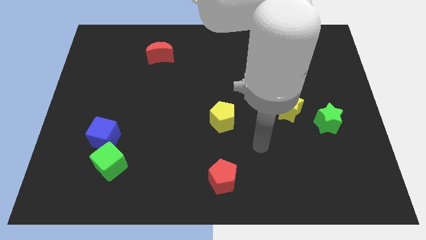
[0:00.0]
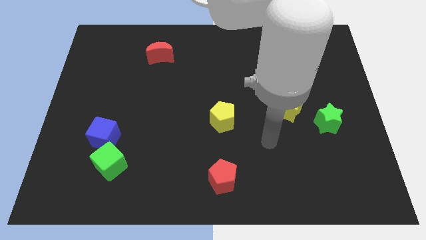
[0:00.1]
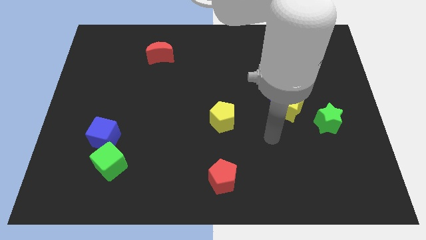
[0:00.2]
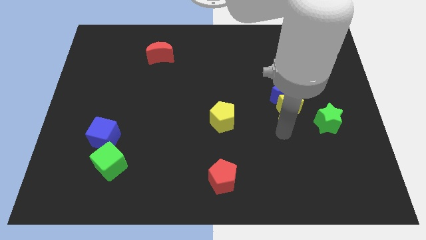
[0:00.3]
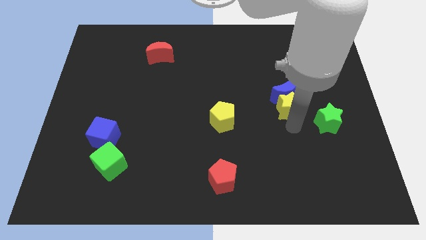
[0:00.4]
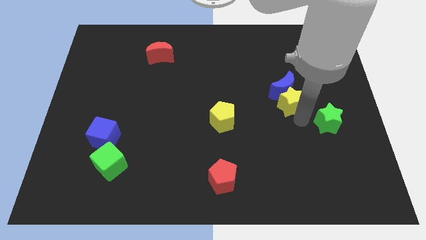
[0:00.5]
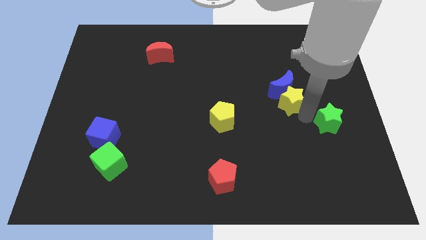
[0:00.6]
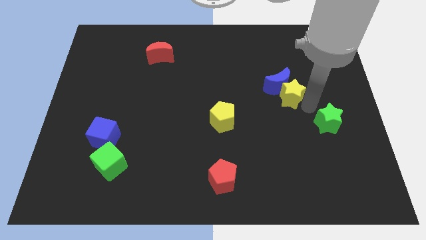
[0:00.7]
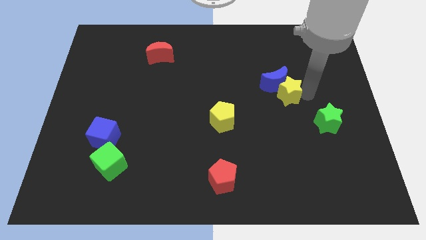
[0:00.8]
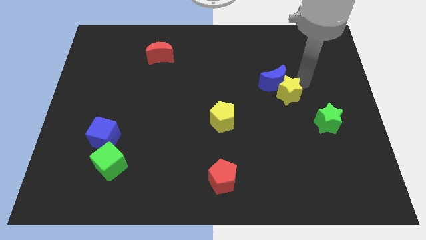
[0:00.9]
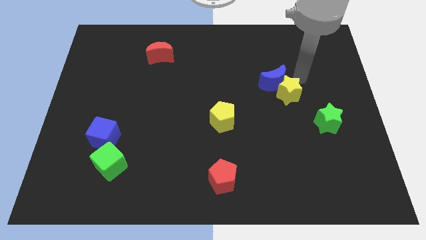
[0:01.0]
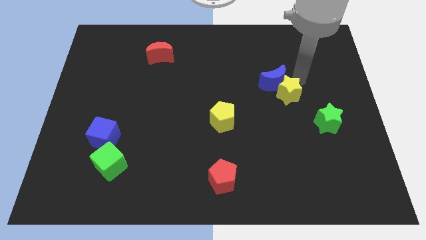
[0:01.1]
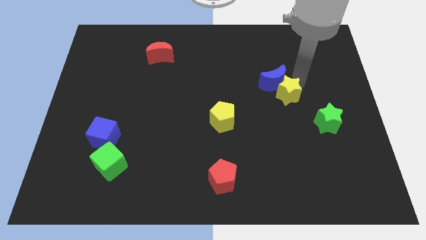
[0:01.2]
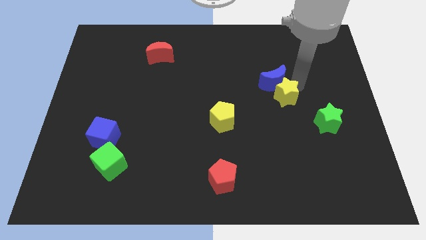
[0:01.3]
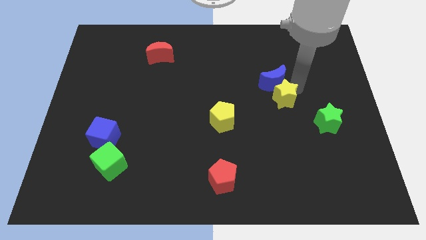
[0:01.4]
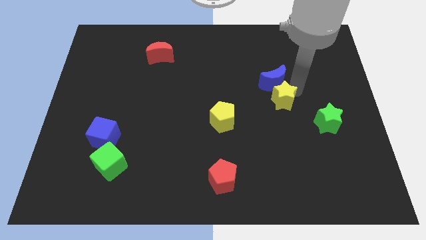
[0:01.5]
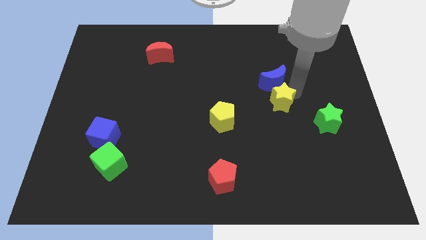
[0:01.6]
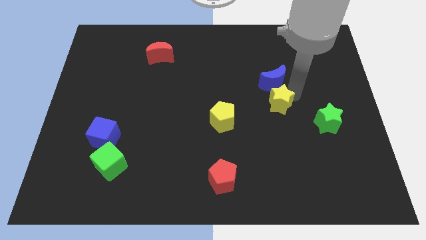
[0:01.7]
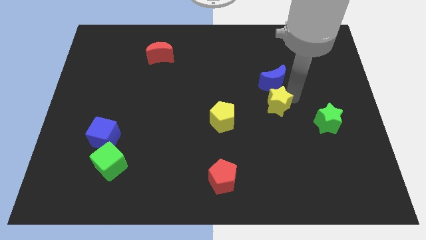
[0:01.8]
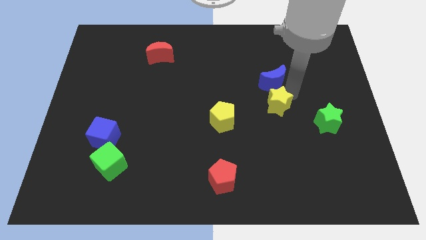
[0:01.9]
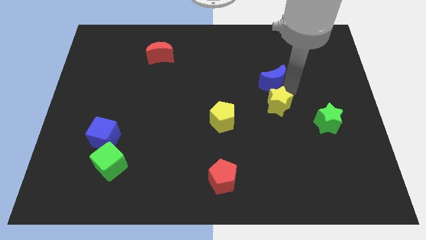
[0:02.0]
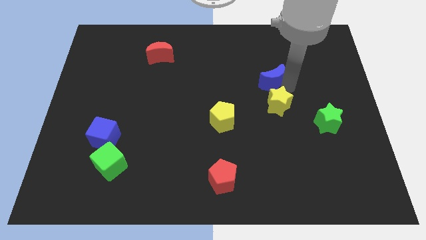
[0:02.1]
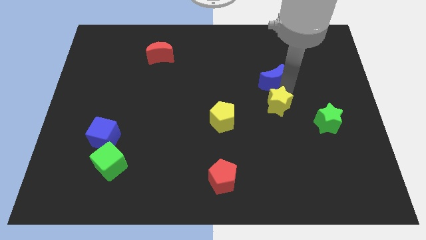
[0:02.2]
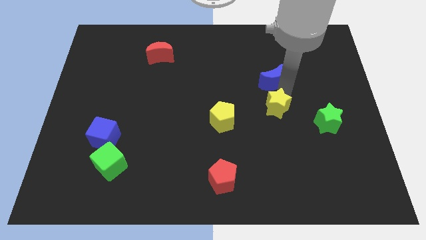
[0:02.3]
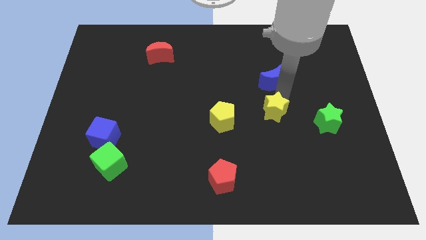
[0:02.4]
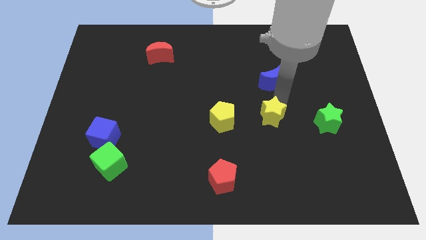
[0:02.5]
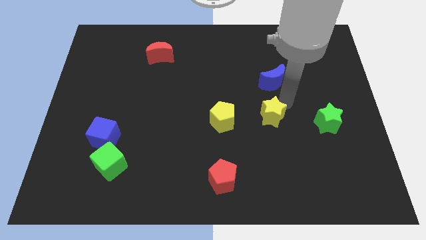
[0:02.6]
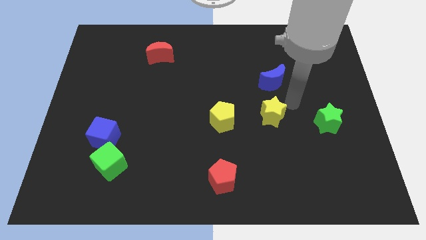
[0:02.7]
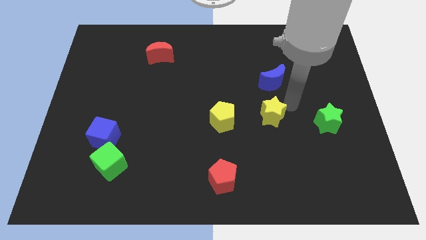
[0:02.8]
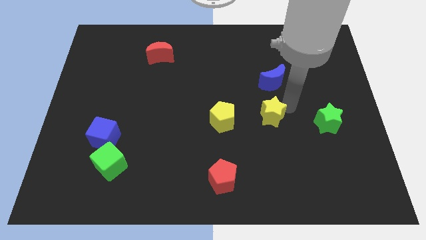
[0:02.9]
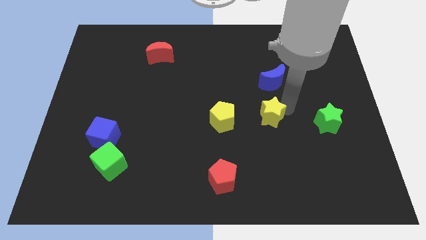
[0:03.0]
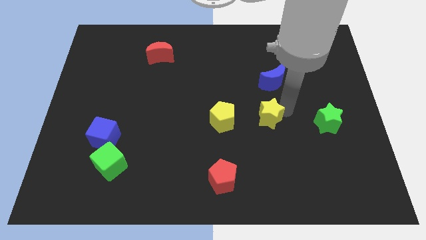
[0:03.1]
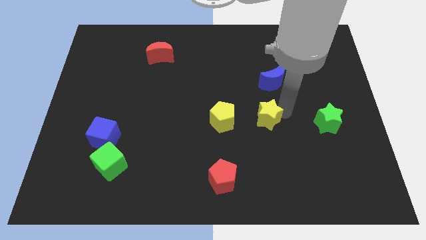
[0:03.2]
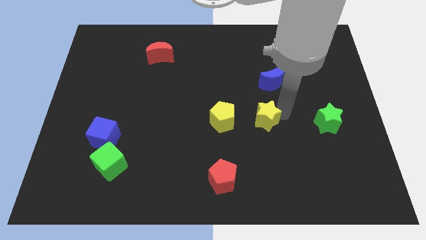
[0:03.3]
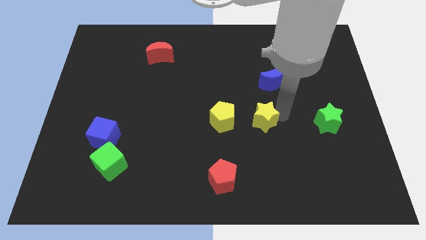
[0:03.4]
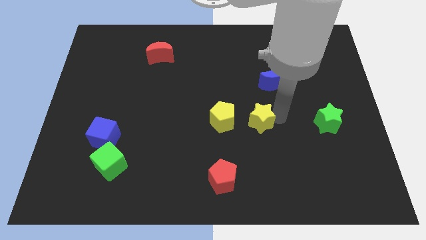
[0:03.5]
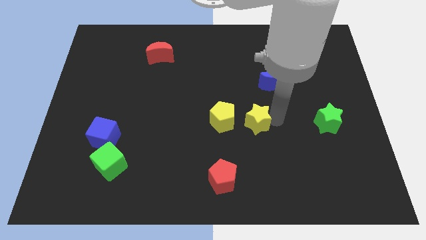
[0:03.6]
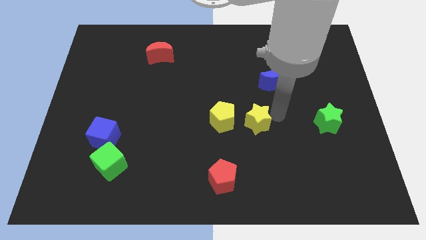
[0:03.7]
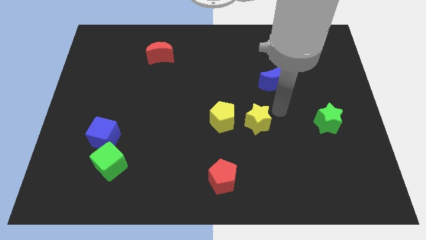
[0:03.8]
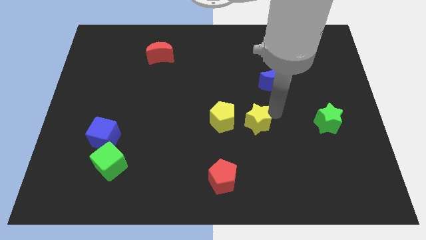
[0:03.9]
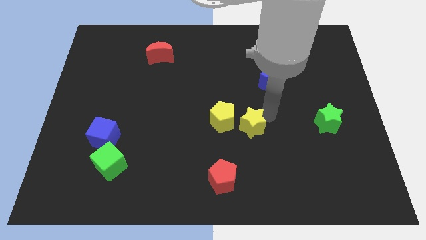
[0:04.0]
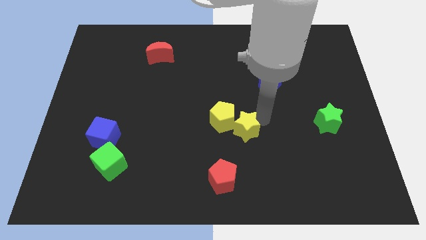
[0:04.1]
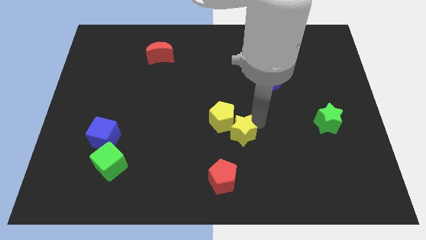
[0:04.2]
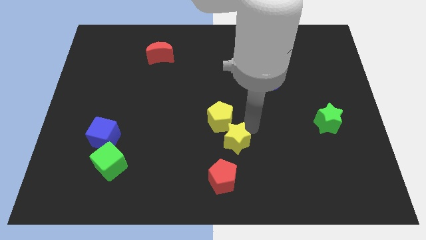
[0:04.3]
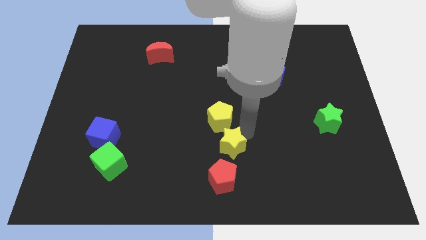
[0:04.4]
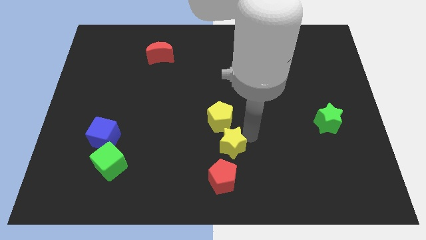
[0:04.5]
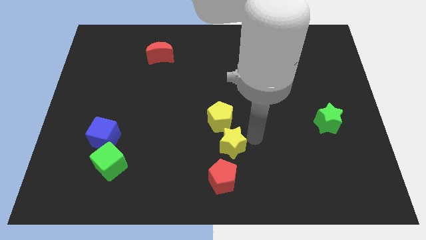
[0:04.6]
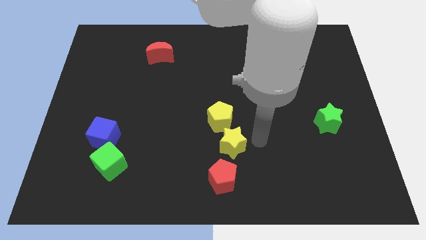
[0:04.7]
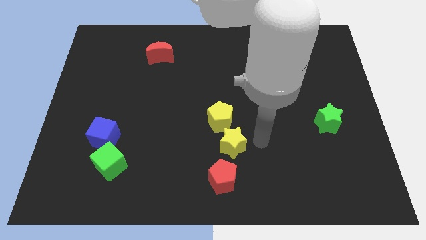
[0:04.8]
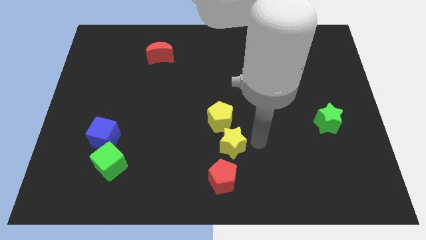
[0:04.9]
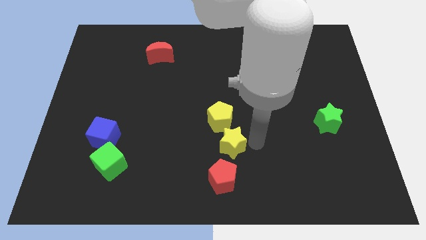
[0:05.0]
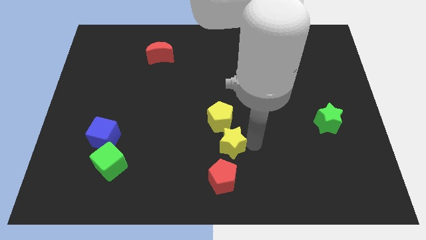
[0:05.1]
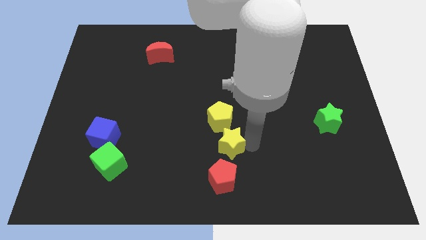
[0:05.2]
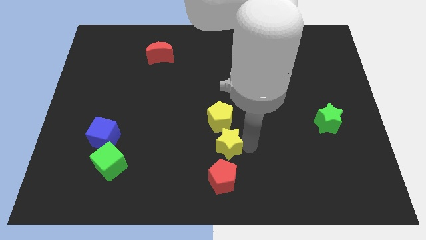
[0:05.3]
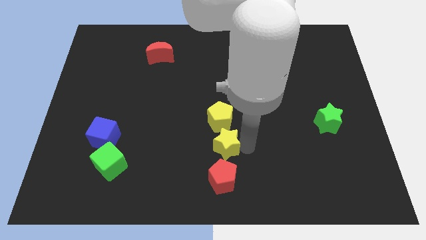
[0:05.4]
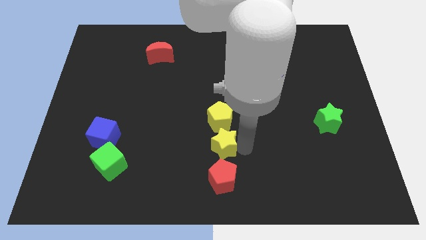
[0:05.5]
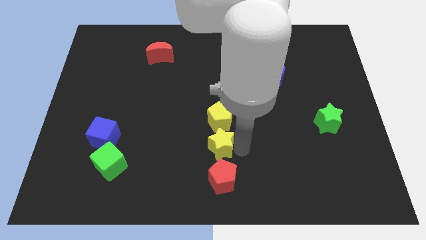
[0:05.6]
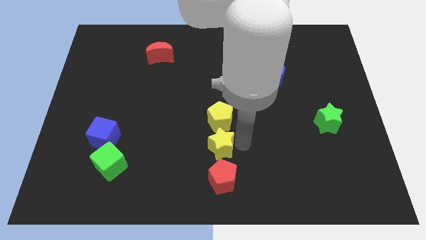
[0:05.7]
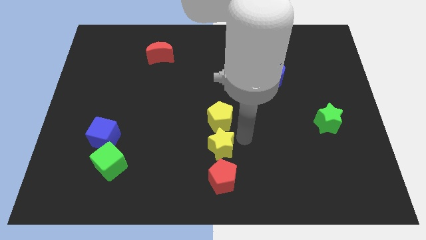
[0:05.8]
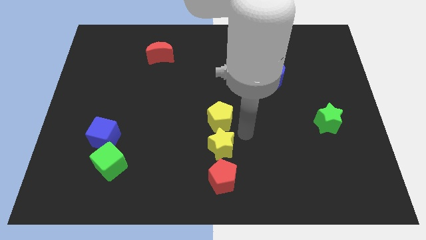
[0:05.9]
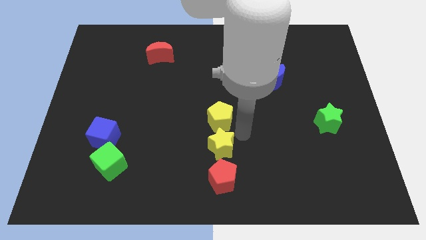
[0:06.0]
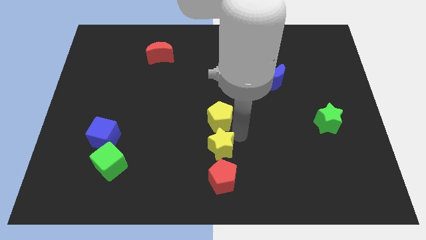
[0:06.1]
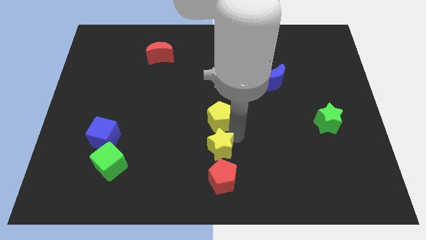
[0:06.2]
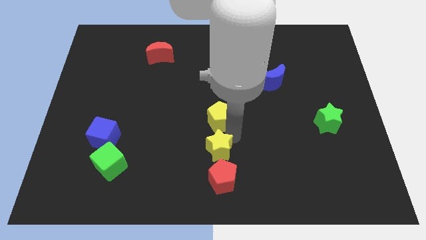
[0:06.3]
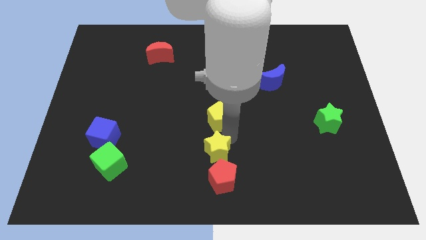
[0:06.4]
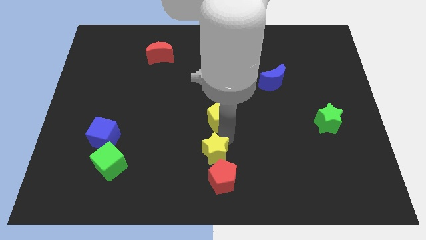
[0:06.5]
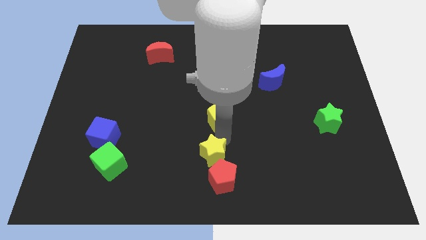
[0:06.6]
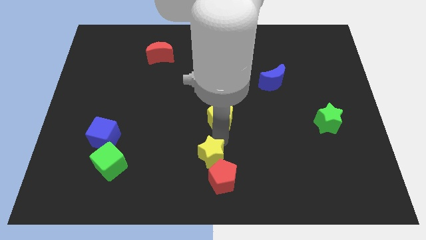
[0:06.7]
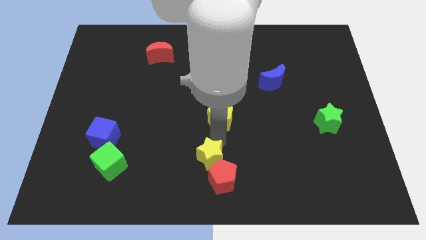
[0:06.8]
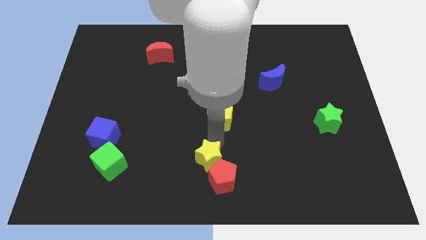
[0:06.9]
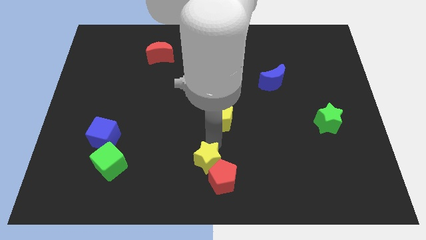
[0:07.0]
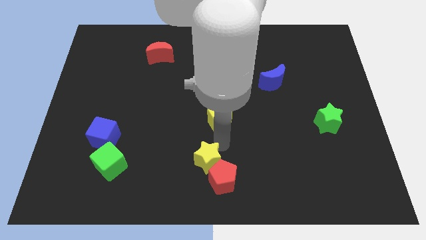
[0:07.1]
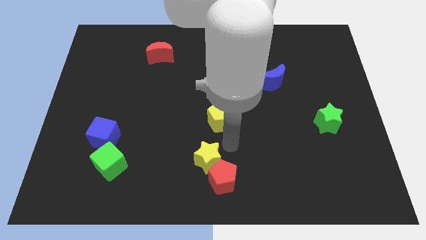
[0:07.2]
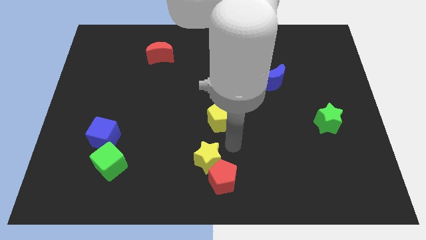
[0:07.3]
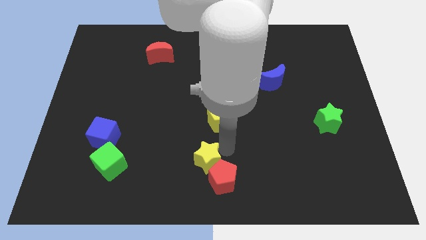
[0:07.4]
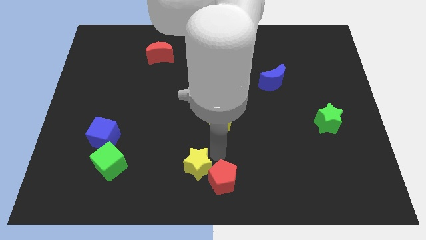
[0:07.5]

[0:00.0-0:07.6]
put the yellow star just left of the red pentagon
